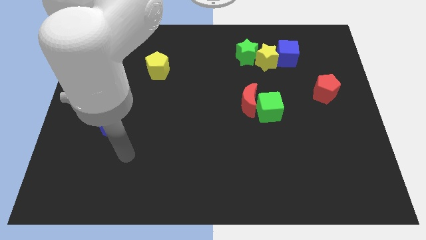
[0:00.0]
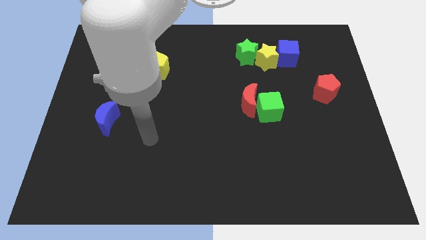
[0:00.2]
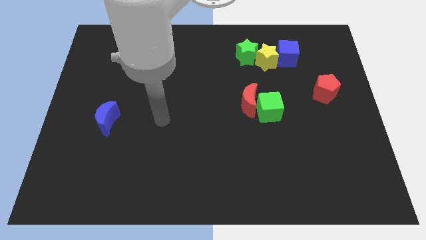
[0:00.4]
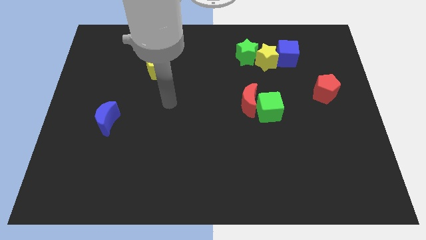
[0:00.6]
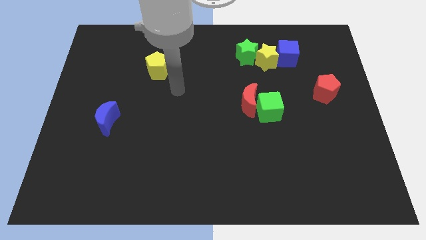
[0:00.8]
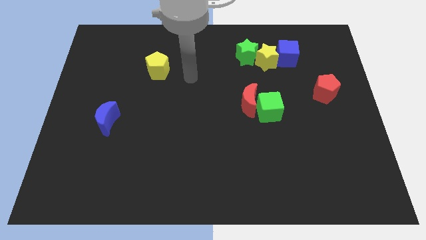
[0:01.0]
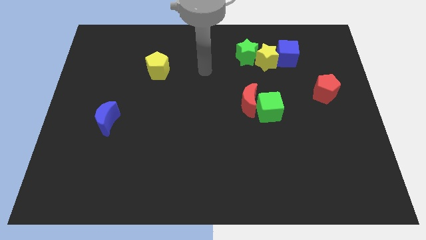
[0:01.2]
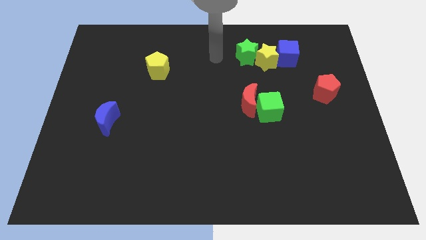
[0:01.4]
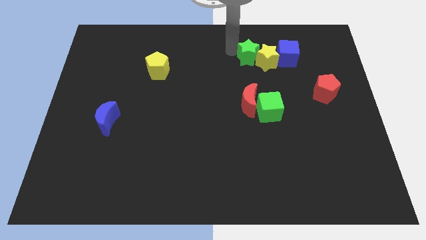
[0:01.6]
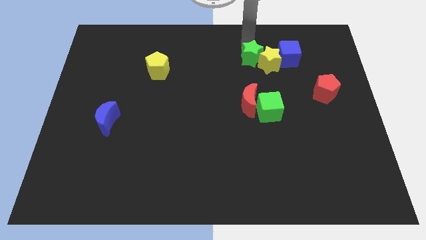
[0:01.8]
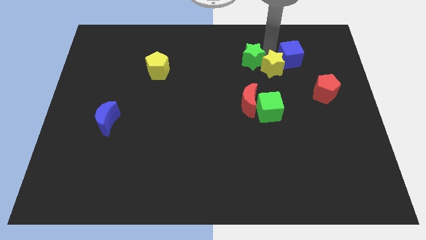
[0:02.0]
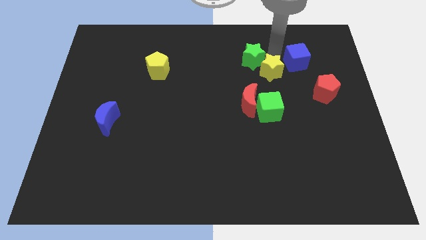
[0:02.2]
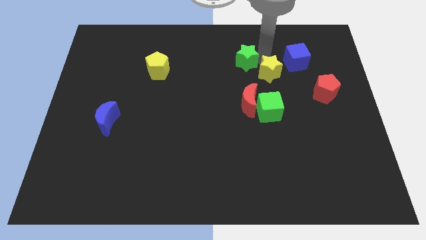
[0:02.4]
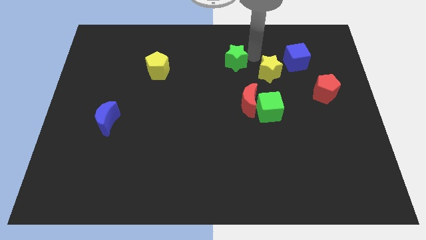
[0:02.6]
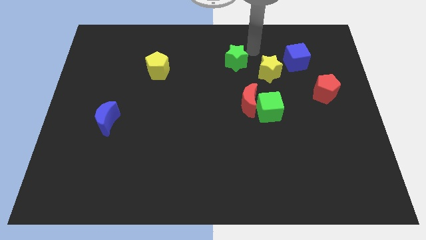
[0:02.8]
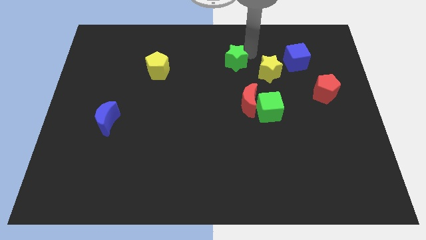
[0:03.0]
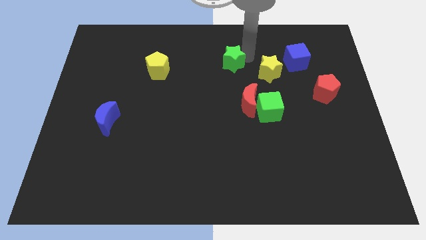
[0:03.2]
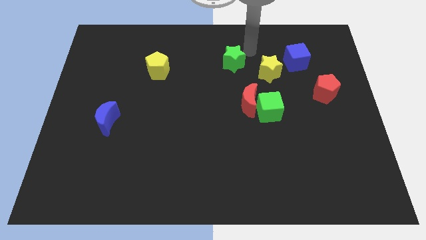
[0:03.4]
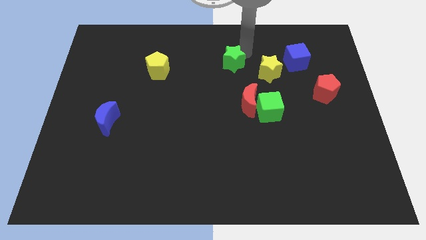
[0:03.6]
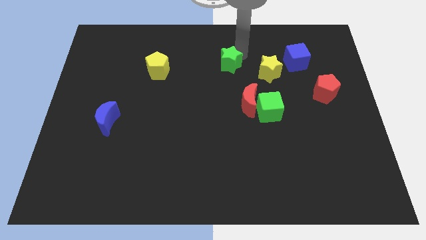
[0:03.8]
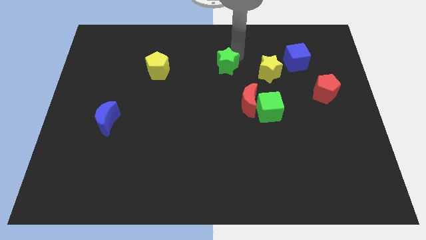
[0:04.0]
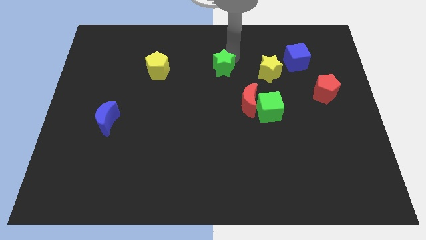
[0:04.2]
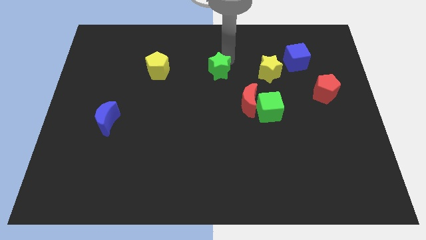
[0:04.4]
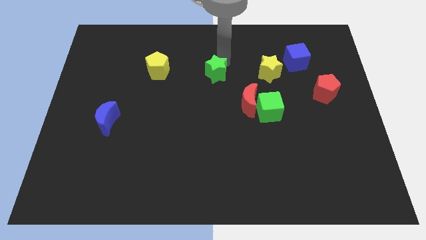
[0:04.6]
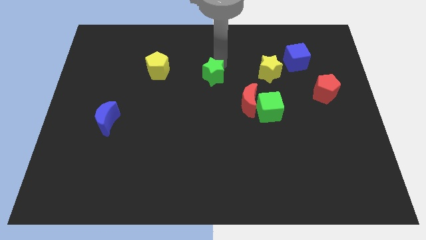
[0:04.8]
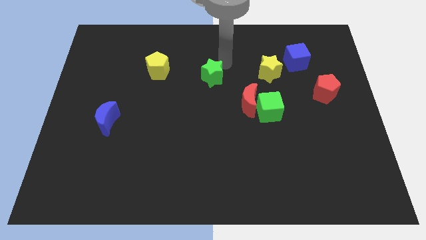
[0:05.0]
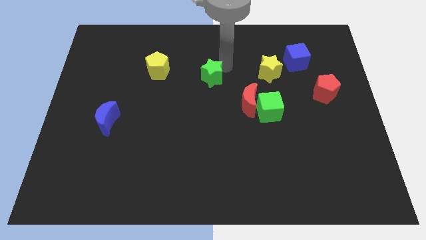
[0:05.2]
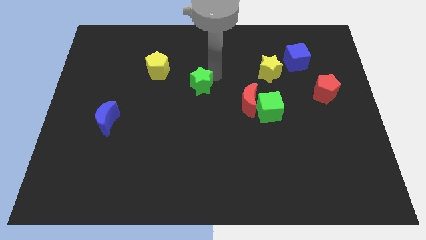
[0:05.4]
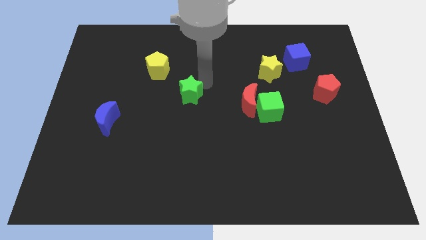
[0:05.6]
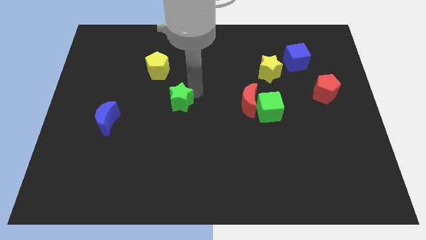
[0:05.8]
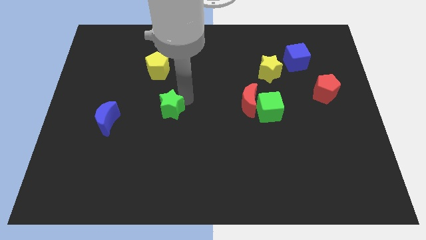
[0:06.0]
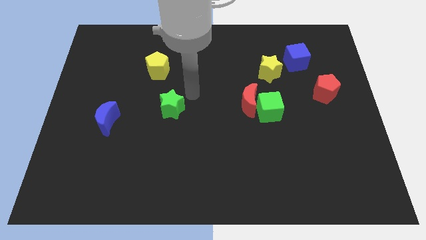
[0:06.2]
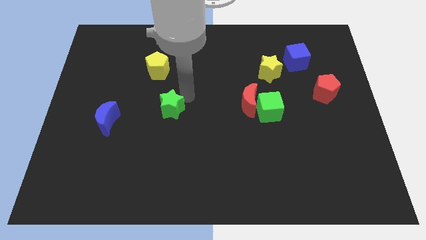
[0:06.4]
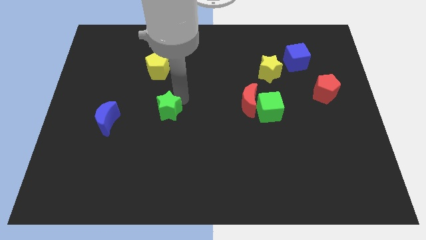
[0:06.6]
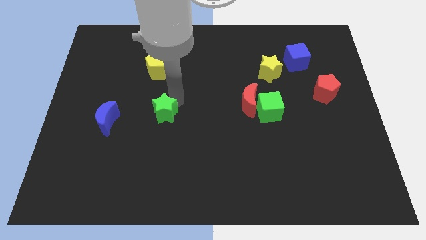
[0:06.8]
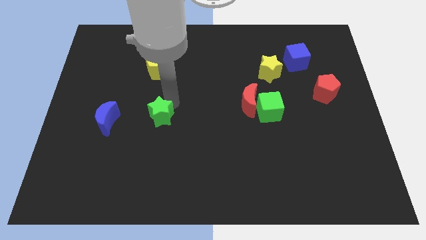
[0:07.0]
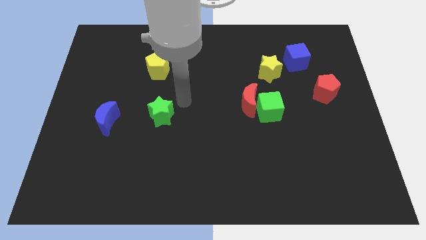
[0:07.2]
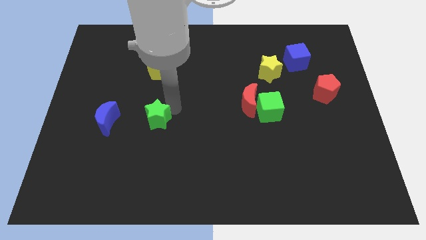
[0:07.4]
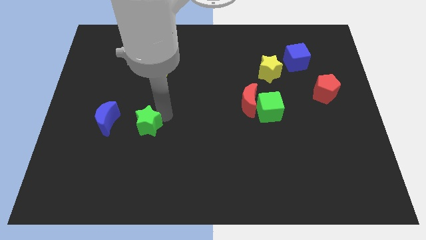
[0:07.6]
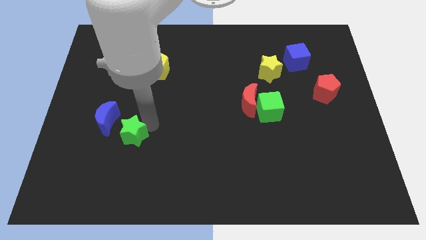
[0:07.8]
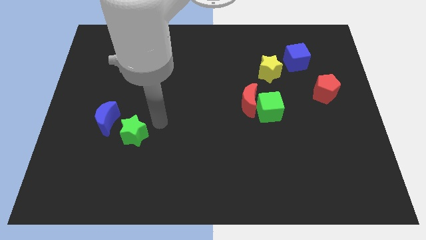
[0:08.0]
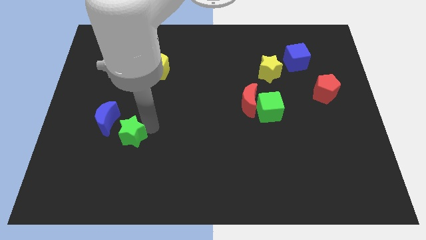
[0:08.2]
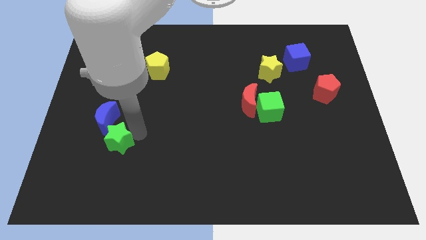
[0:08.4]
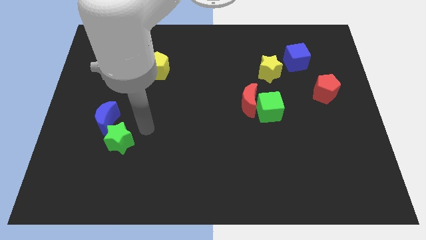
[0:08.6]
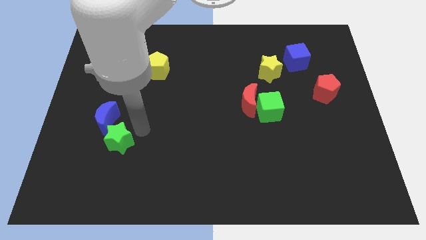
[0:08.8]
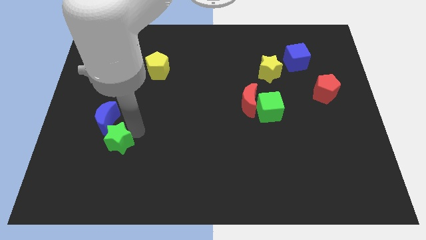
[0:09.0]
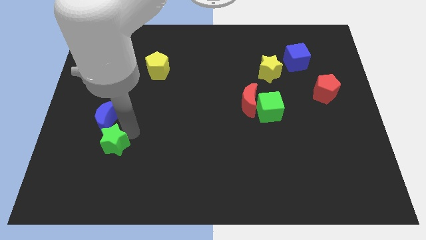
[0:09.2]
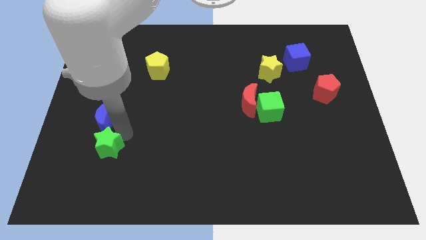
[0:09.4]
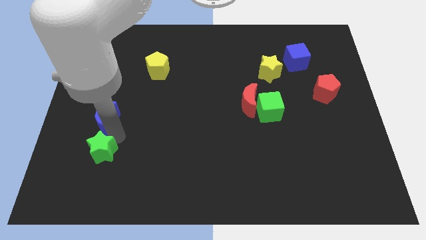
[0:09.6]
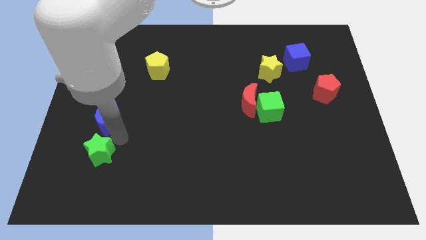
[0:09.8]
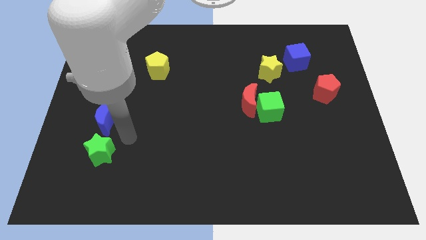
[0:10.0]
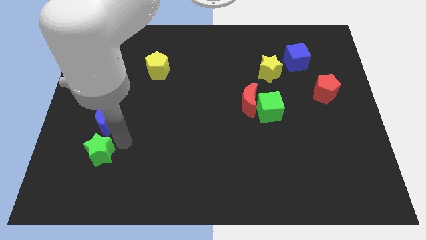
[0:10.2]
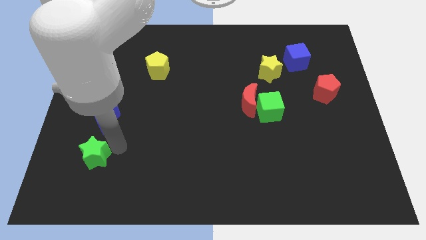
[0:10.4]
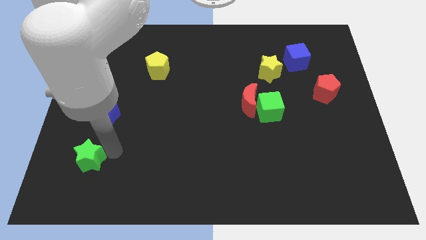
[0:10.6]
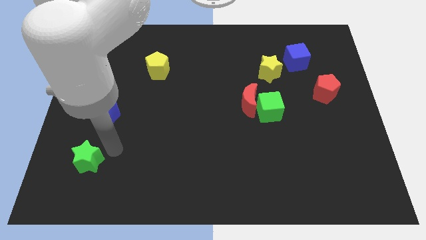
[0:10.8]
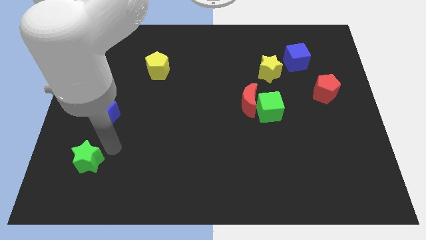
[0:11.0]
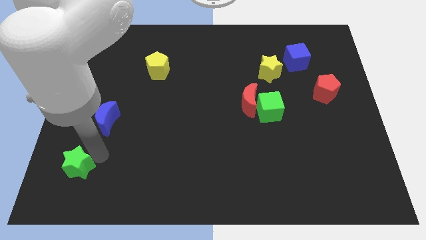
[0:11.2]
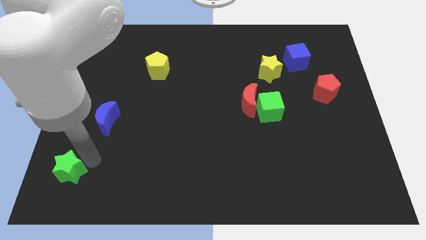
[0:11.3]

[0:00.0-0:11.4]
put the green star to the lower left corner
